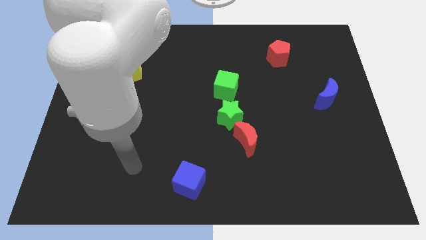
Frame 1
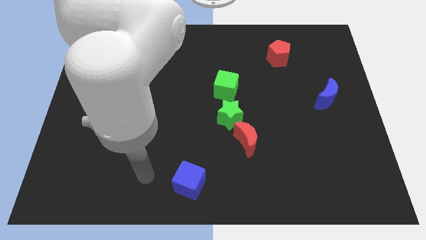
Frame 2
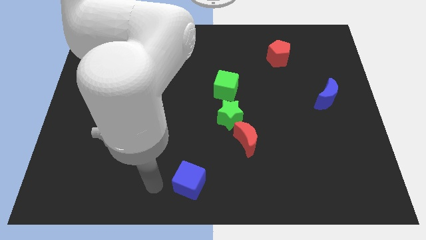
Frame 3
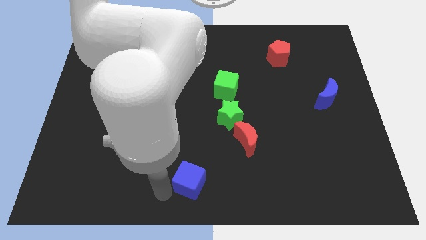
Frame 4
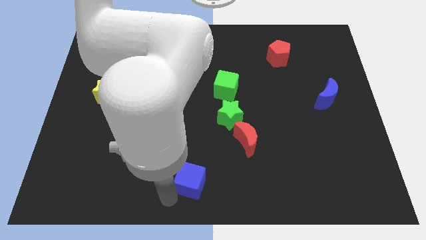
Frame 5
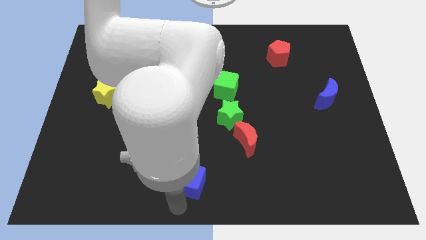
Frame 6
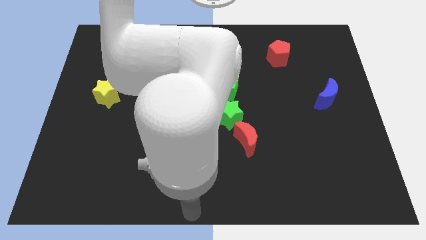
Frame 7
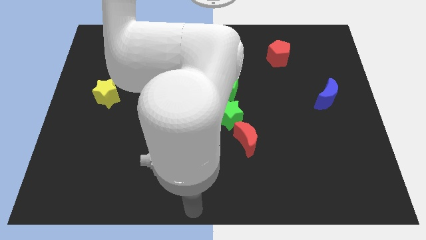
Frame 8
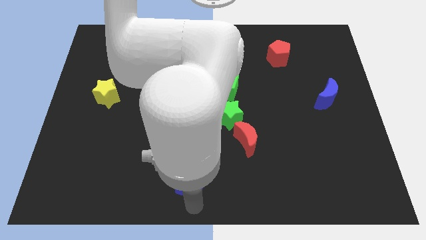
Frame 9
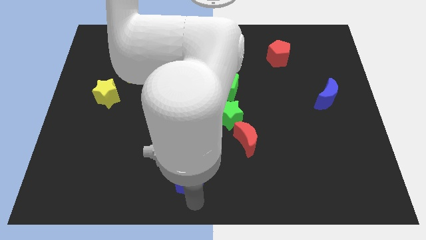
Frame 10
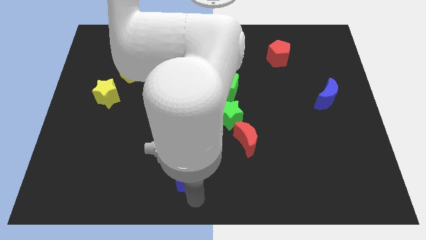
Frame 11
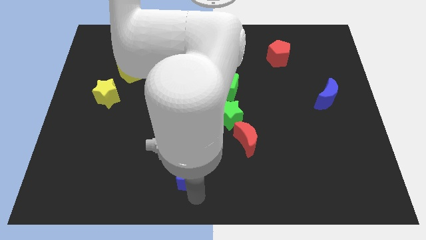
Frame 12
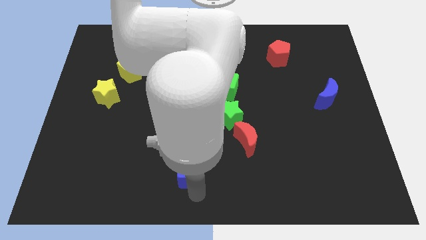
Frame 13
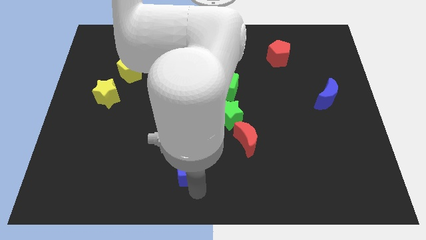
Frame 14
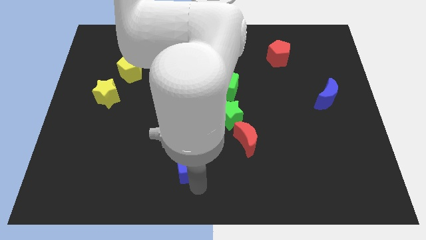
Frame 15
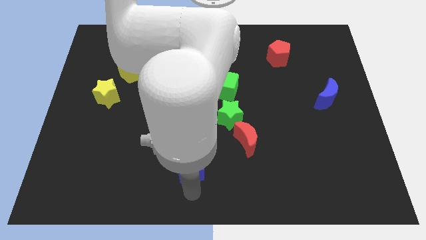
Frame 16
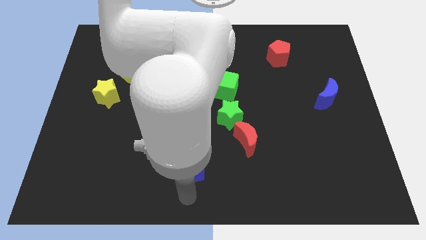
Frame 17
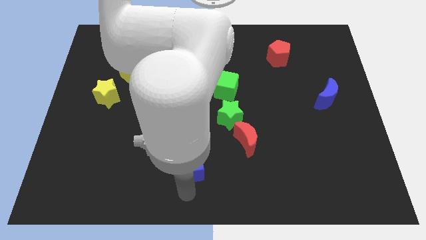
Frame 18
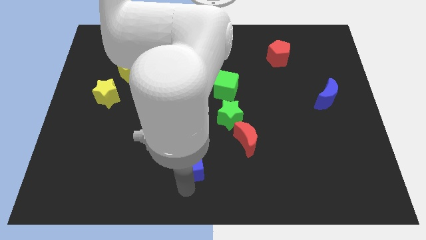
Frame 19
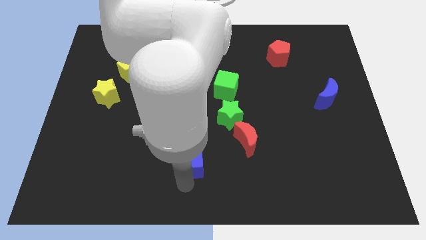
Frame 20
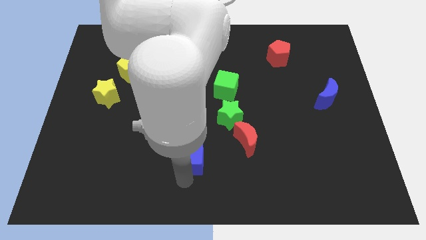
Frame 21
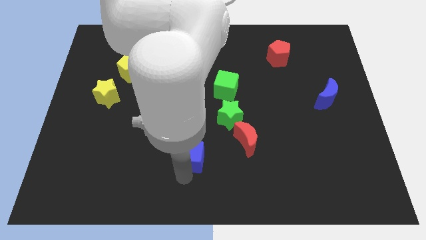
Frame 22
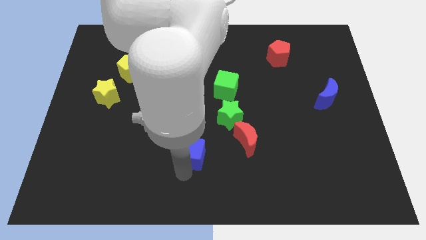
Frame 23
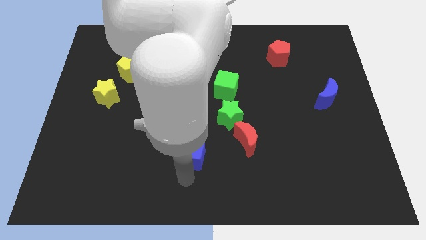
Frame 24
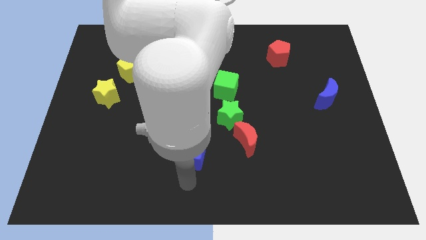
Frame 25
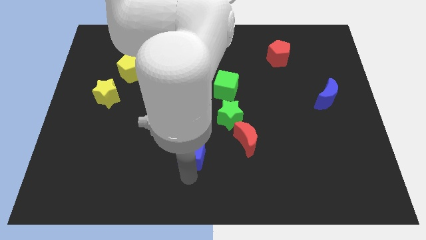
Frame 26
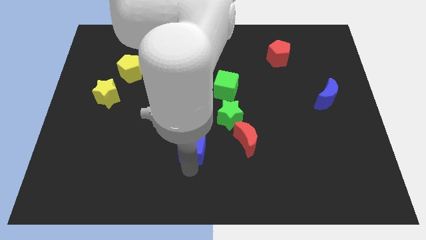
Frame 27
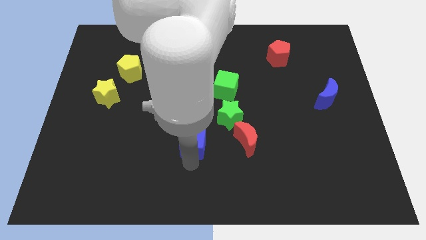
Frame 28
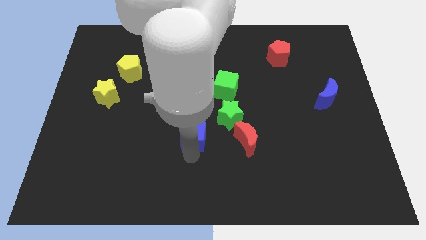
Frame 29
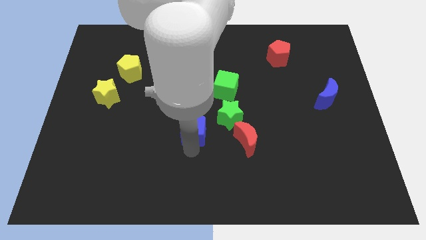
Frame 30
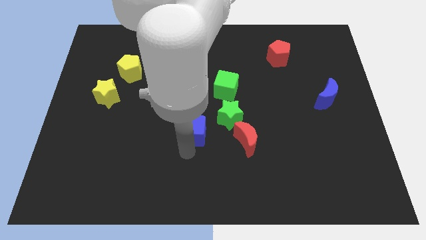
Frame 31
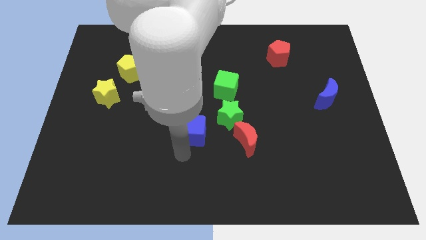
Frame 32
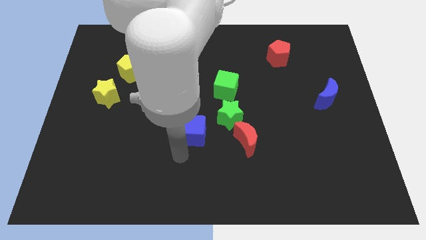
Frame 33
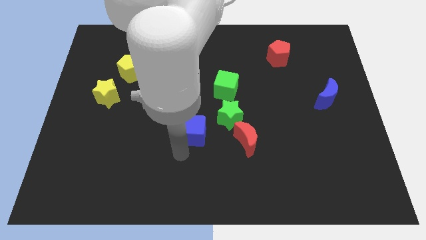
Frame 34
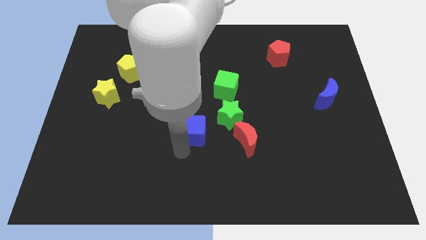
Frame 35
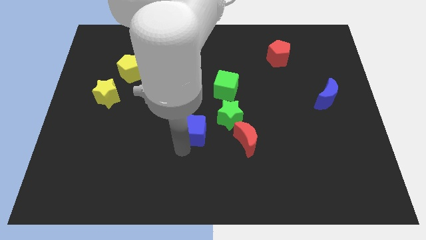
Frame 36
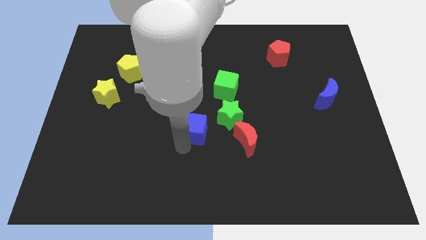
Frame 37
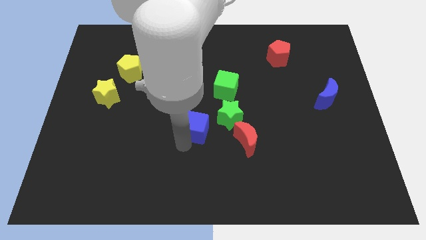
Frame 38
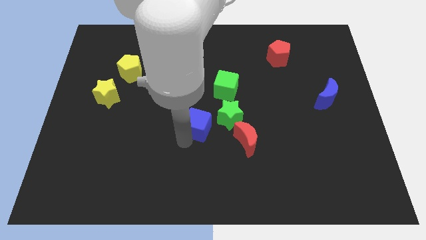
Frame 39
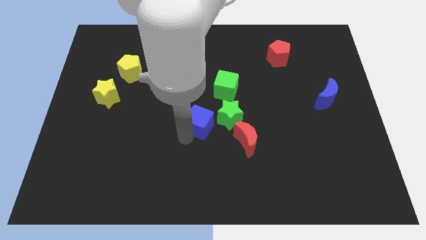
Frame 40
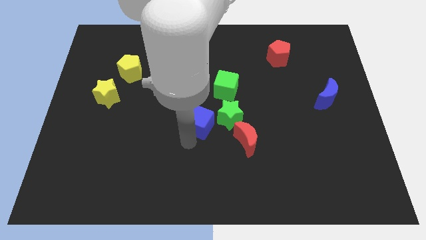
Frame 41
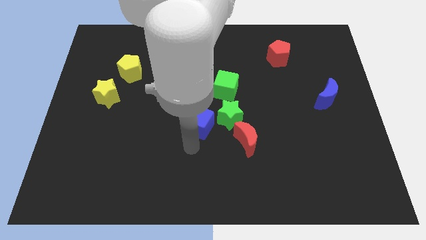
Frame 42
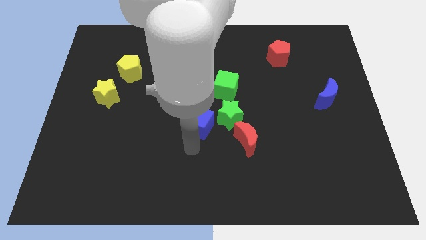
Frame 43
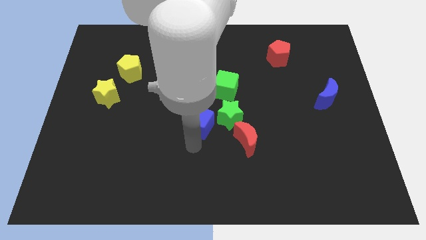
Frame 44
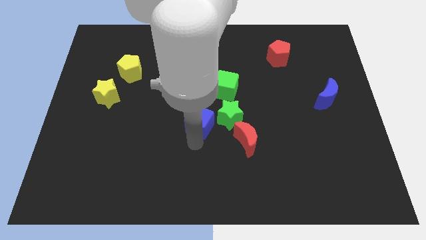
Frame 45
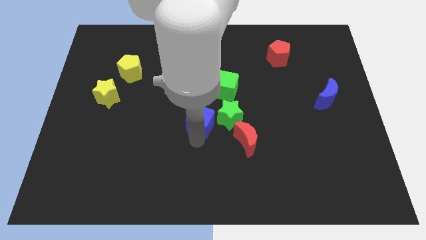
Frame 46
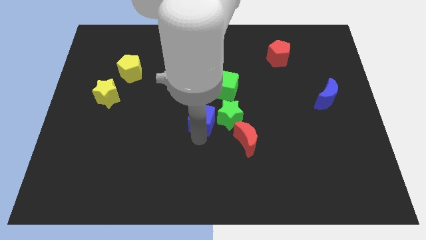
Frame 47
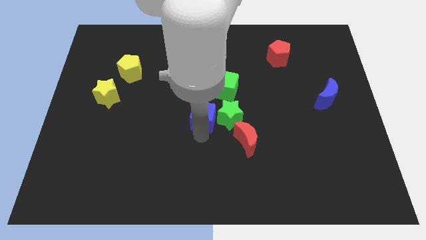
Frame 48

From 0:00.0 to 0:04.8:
put the blue cube to the top left of the green star

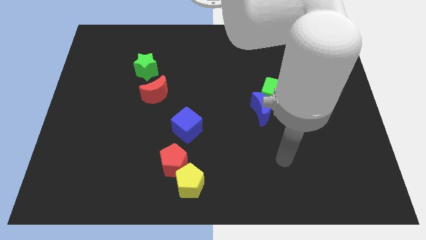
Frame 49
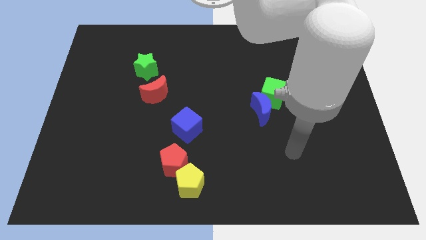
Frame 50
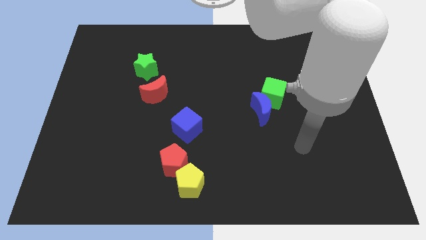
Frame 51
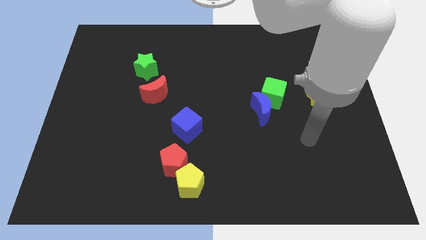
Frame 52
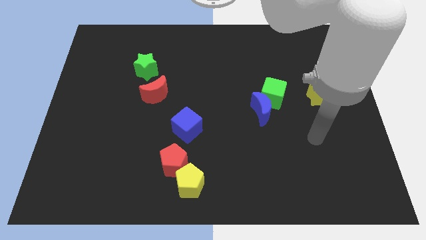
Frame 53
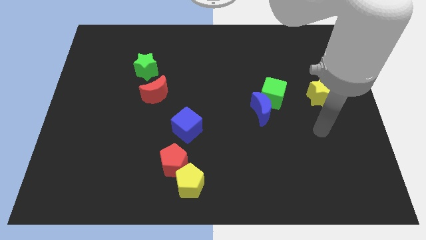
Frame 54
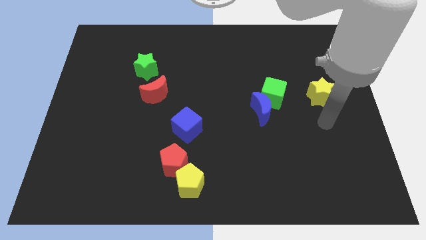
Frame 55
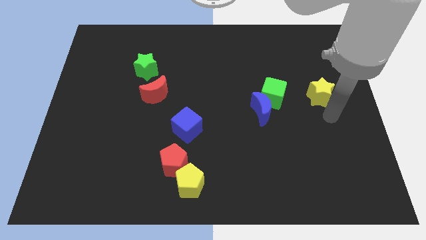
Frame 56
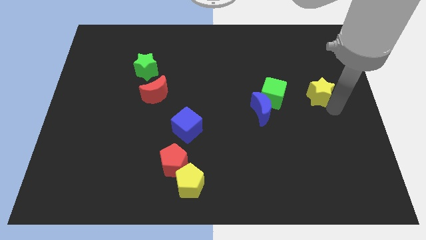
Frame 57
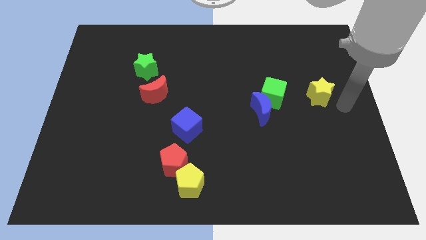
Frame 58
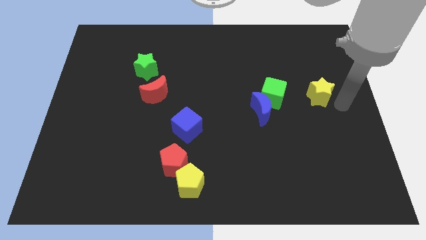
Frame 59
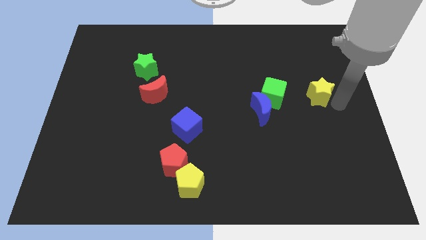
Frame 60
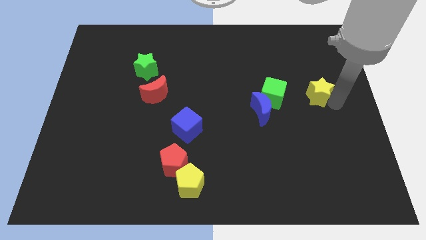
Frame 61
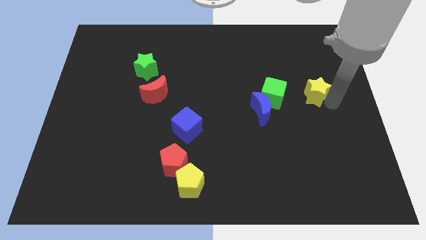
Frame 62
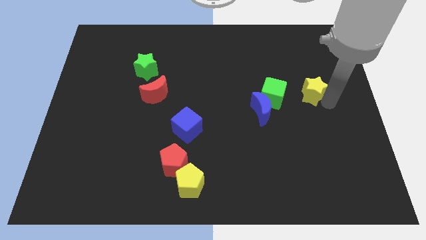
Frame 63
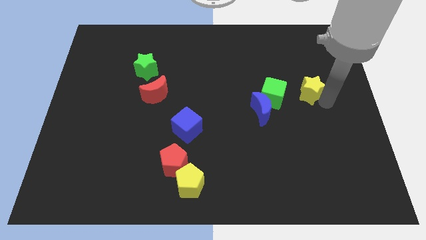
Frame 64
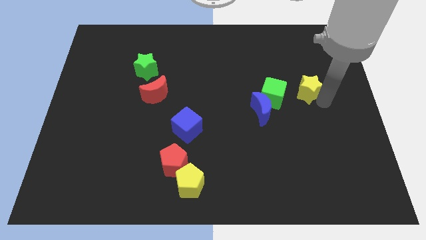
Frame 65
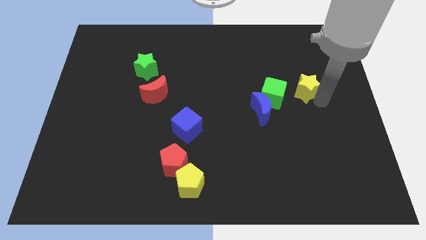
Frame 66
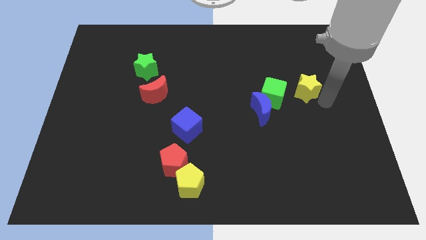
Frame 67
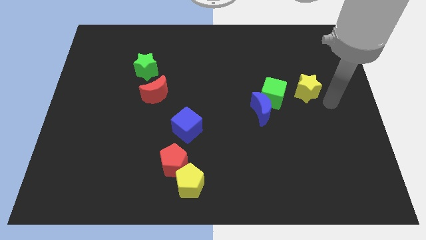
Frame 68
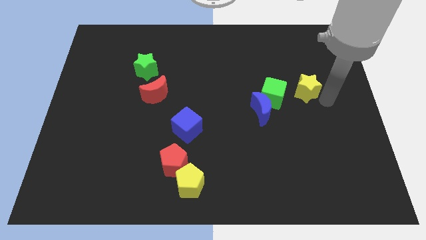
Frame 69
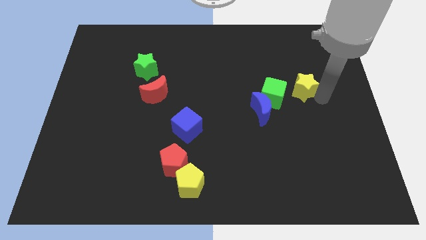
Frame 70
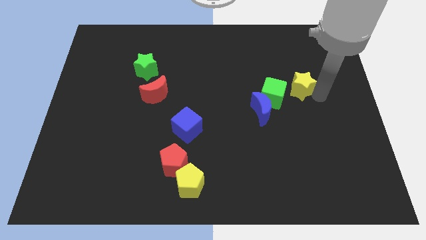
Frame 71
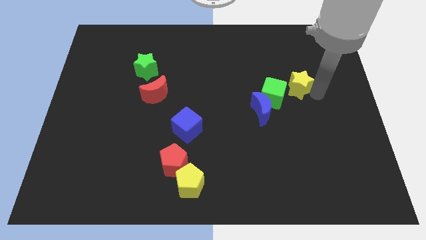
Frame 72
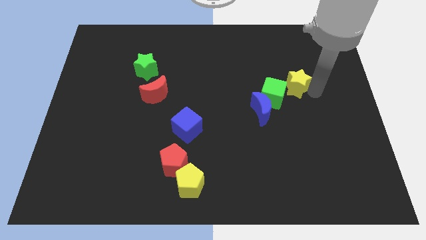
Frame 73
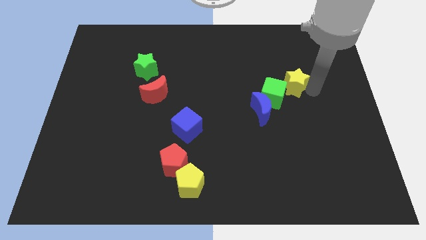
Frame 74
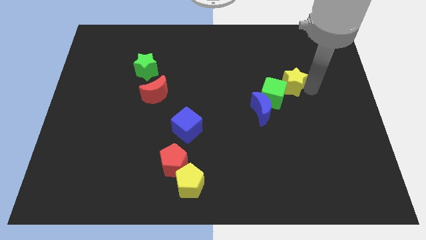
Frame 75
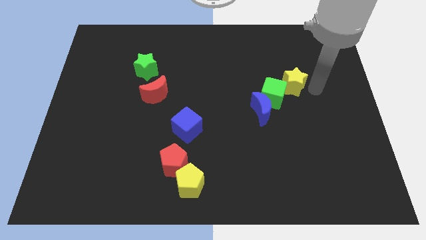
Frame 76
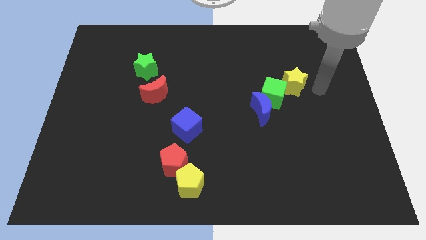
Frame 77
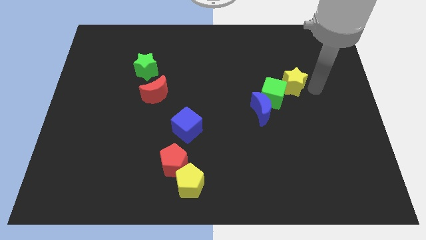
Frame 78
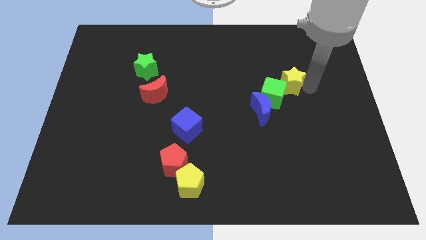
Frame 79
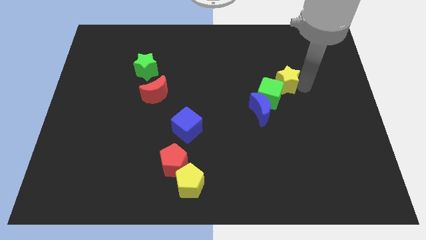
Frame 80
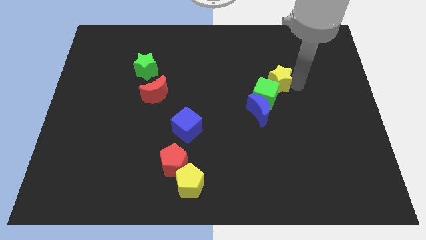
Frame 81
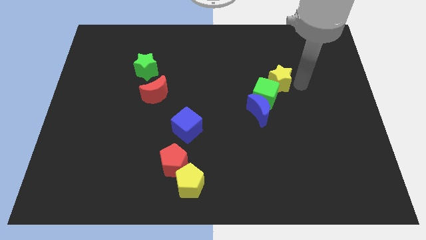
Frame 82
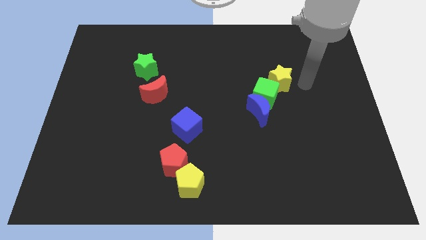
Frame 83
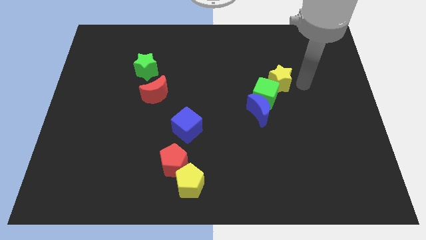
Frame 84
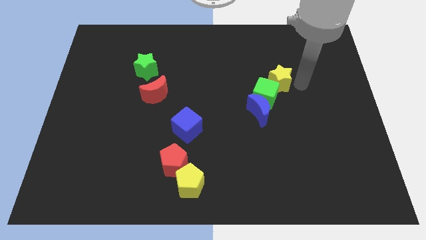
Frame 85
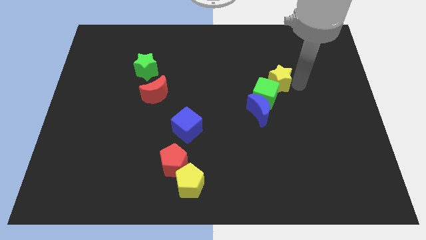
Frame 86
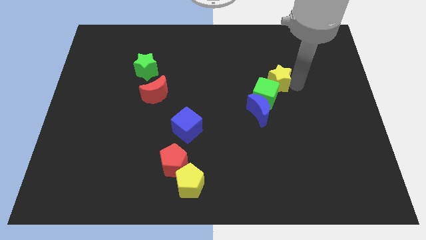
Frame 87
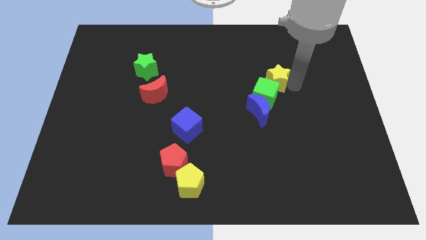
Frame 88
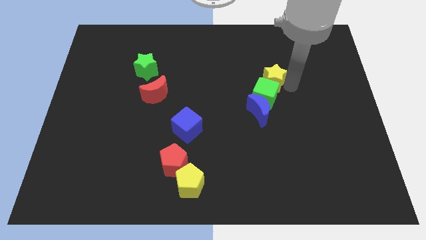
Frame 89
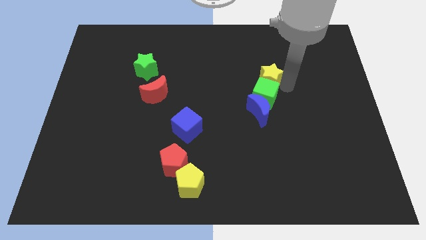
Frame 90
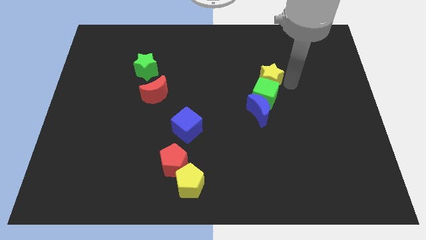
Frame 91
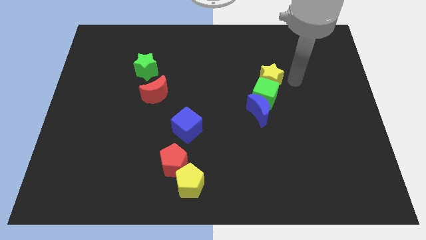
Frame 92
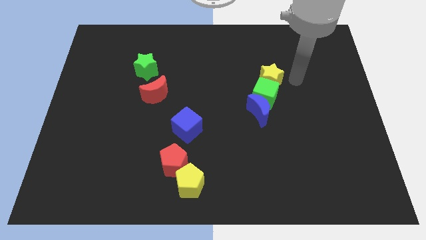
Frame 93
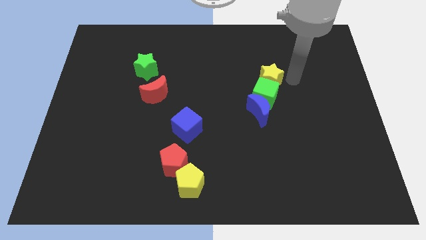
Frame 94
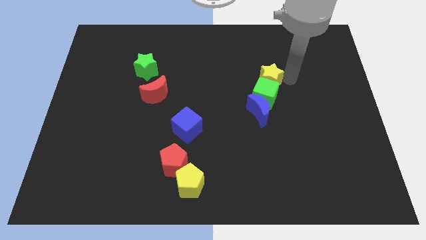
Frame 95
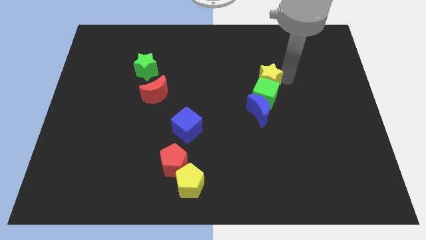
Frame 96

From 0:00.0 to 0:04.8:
push the yellow star diagonally up and to the left of the green cube
